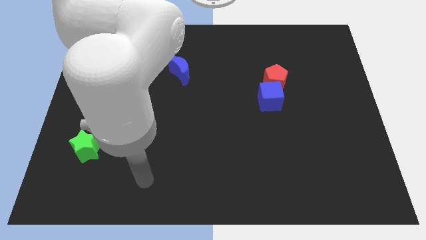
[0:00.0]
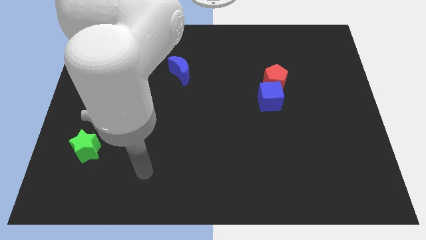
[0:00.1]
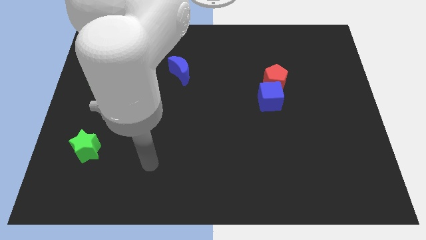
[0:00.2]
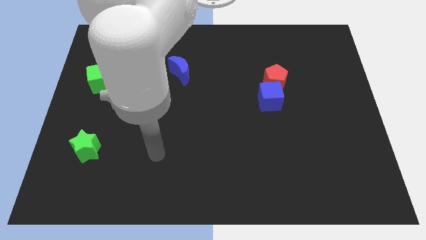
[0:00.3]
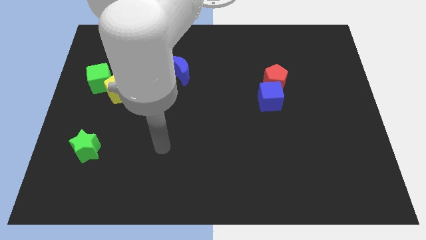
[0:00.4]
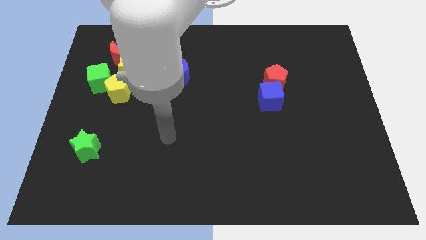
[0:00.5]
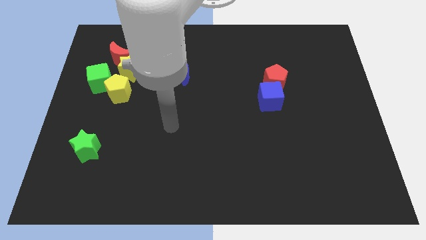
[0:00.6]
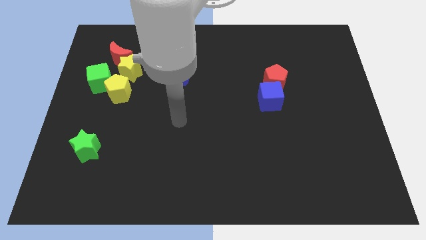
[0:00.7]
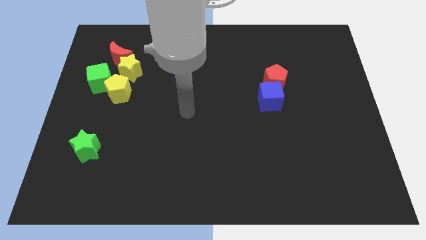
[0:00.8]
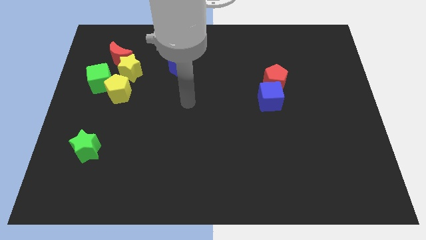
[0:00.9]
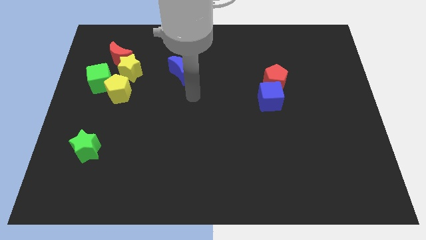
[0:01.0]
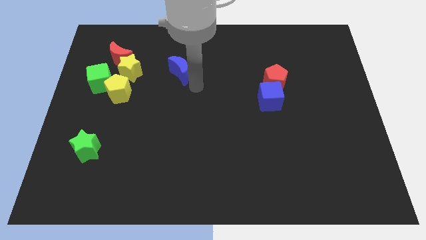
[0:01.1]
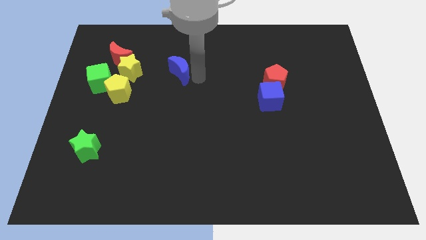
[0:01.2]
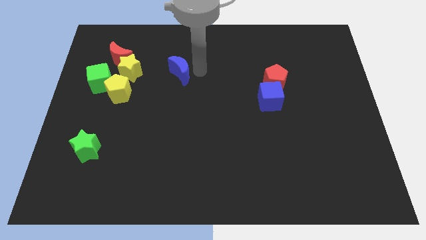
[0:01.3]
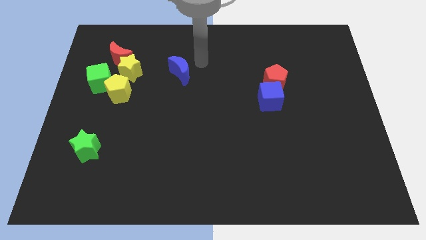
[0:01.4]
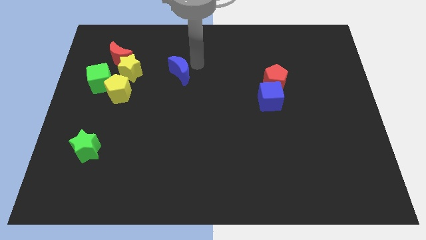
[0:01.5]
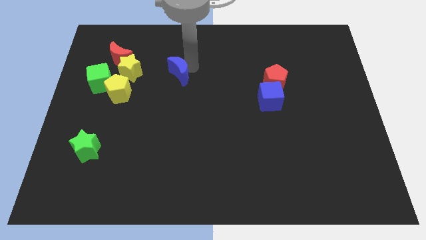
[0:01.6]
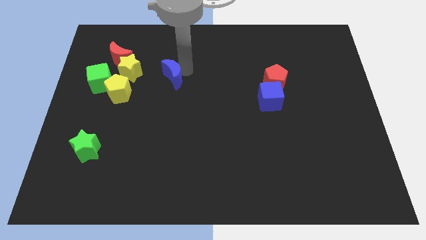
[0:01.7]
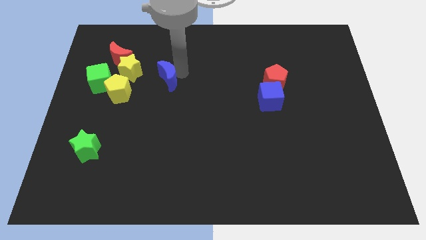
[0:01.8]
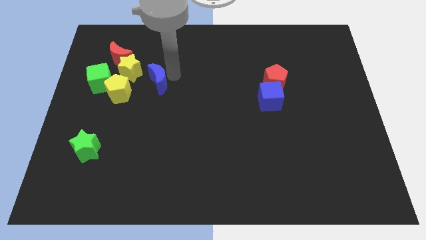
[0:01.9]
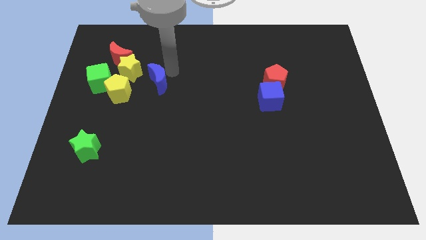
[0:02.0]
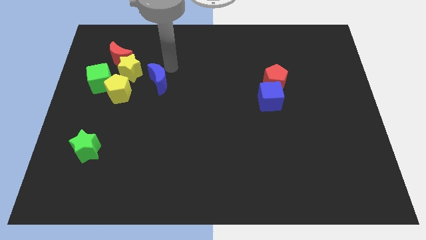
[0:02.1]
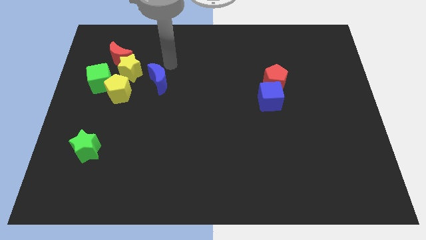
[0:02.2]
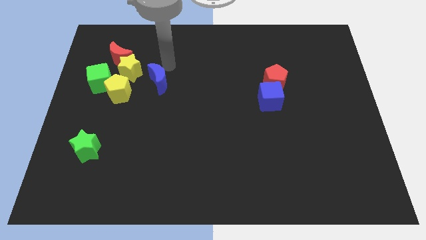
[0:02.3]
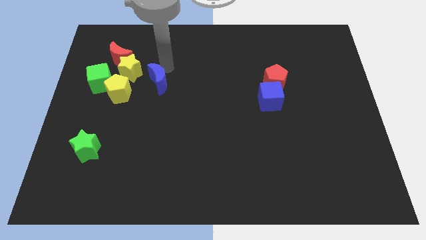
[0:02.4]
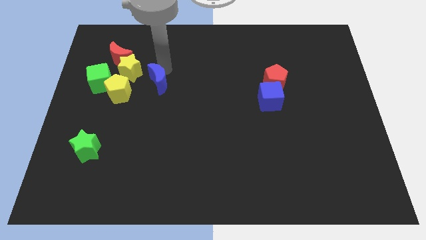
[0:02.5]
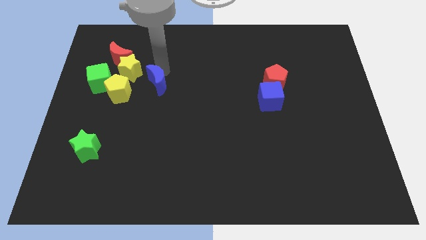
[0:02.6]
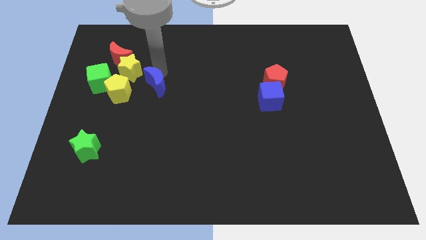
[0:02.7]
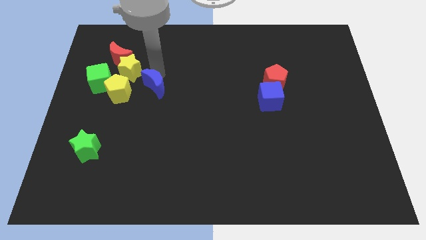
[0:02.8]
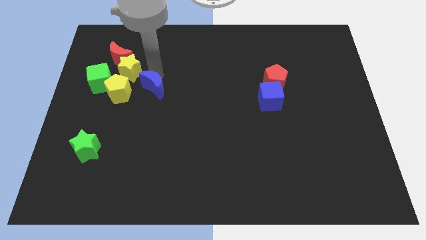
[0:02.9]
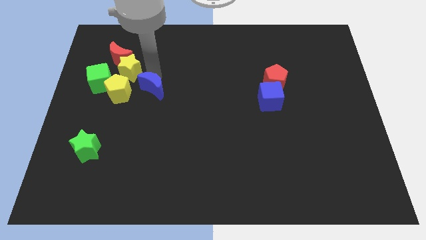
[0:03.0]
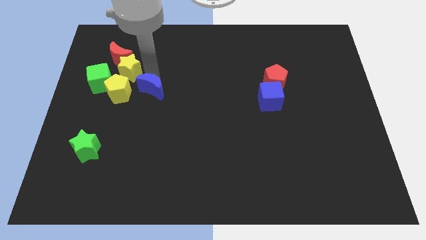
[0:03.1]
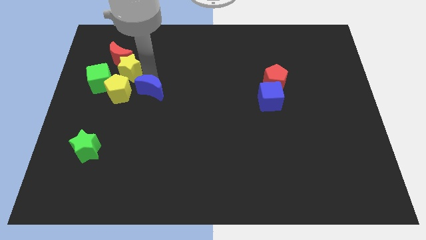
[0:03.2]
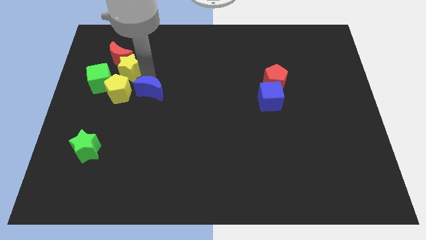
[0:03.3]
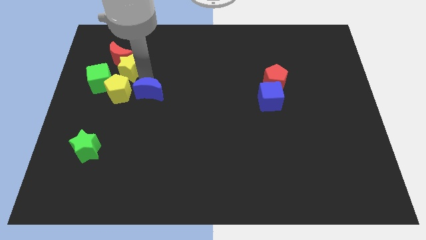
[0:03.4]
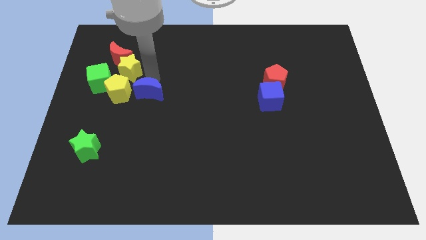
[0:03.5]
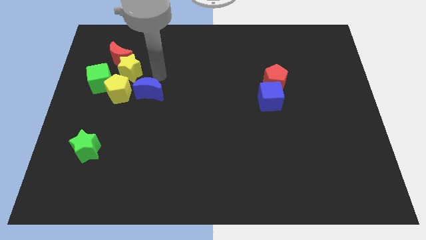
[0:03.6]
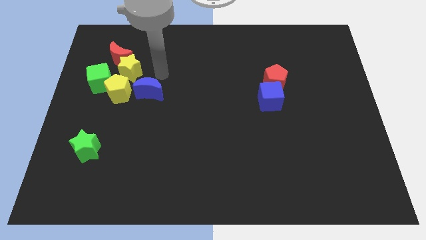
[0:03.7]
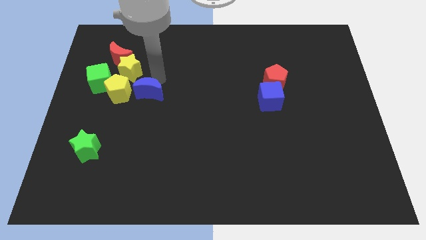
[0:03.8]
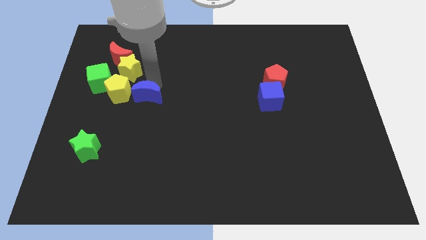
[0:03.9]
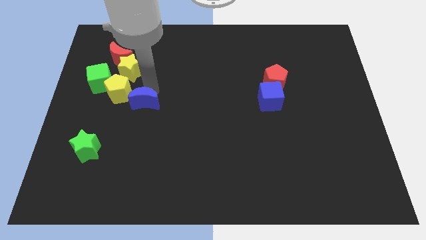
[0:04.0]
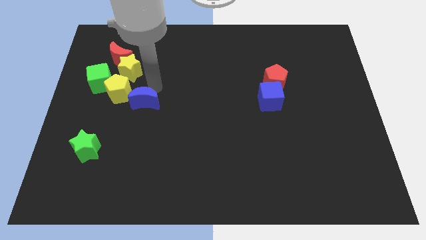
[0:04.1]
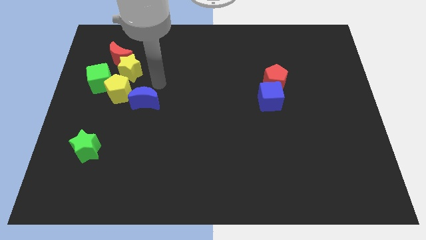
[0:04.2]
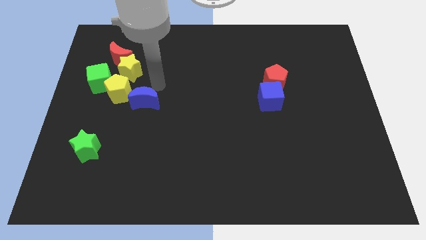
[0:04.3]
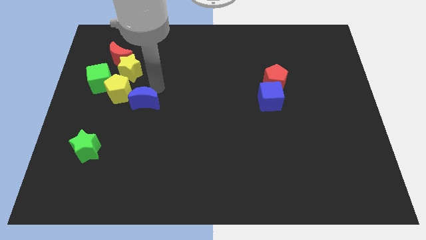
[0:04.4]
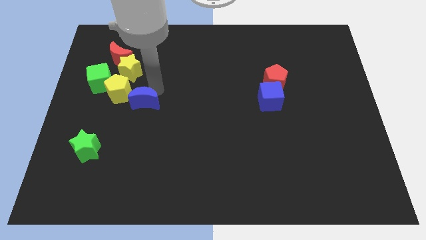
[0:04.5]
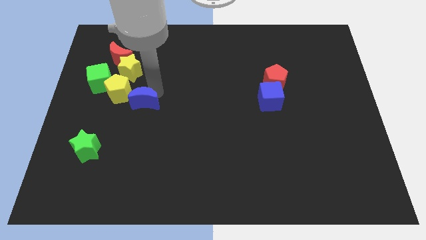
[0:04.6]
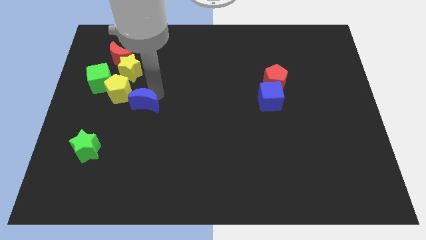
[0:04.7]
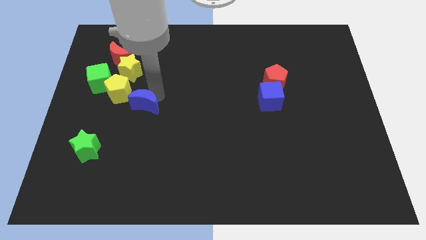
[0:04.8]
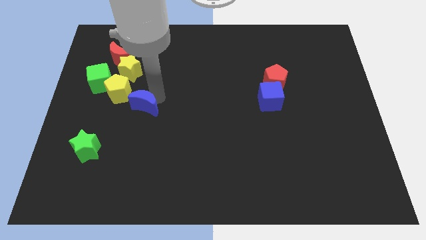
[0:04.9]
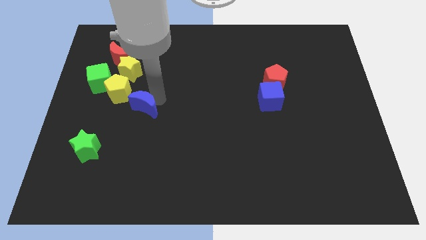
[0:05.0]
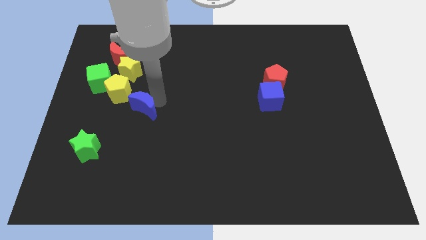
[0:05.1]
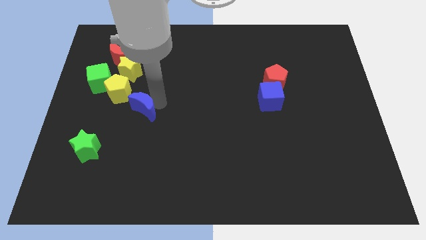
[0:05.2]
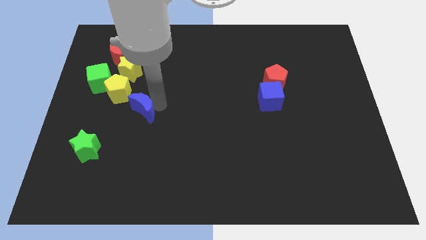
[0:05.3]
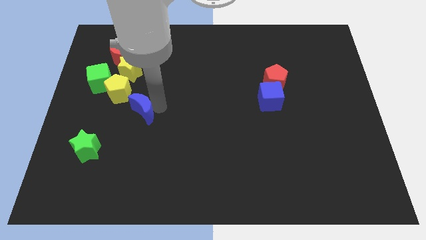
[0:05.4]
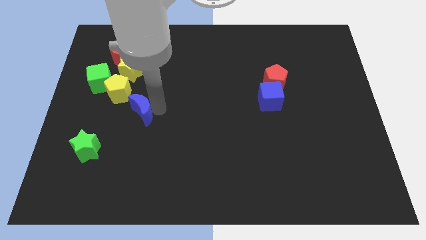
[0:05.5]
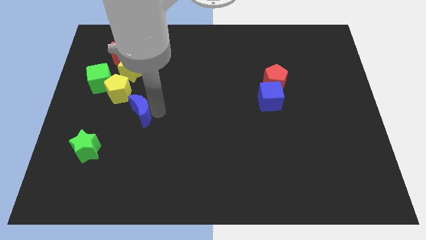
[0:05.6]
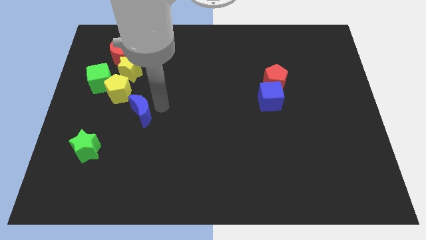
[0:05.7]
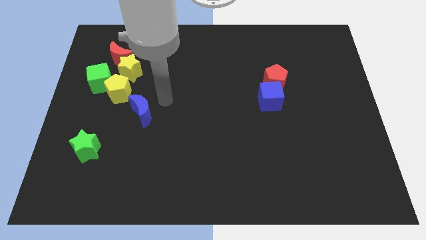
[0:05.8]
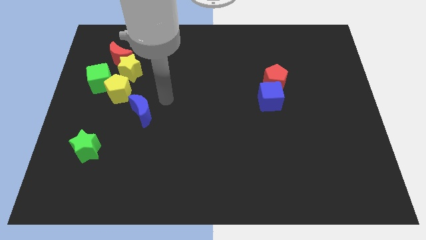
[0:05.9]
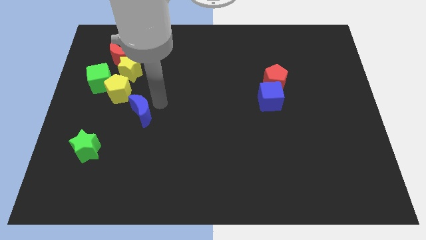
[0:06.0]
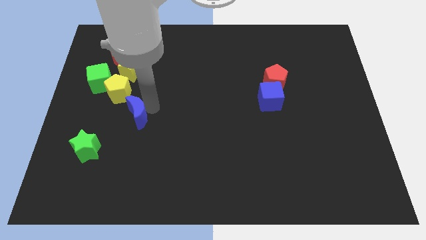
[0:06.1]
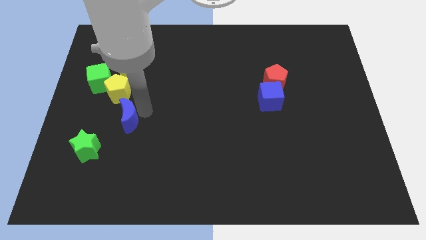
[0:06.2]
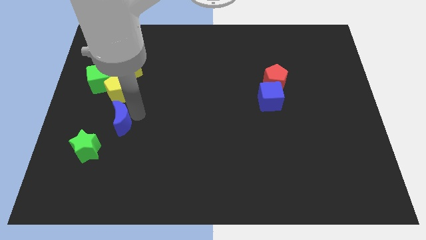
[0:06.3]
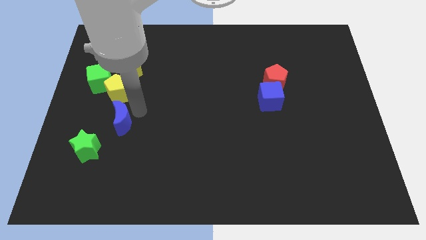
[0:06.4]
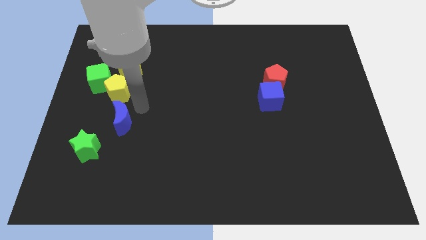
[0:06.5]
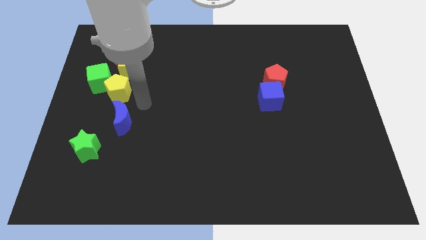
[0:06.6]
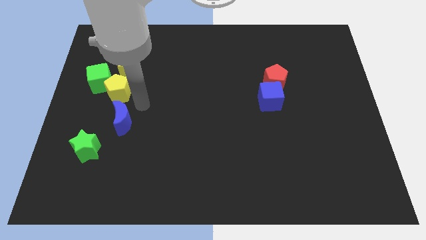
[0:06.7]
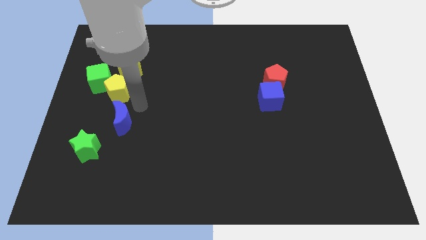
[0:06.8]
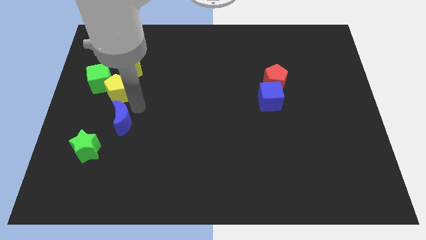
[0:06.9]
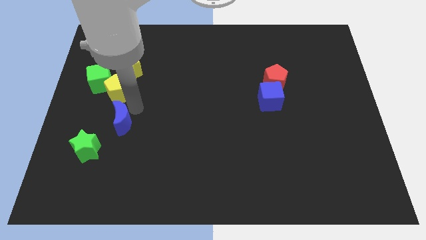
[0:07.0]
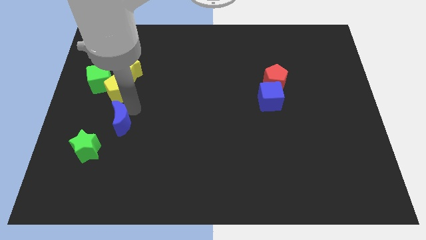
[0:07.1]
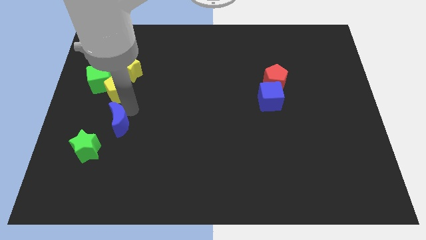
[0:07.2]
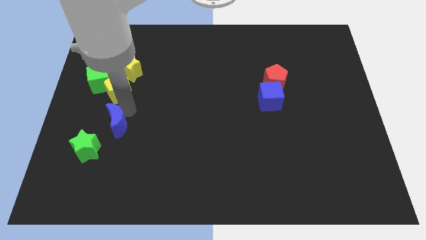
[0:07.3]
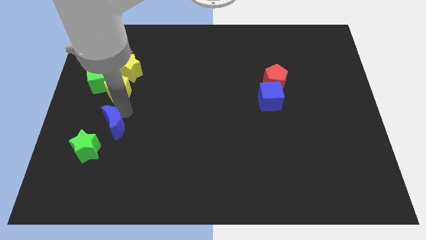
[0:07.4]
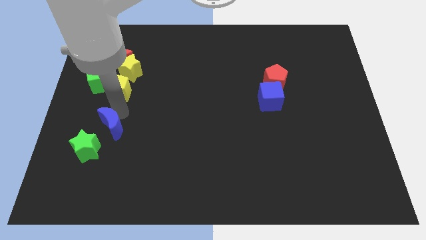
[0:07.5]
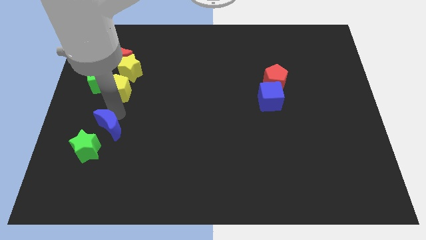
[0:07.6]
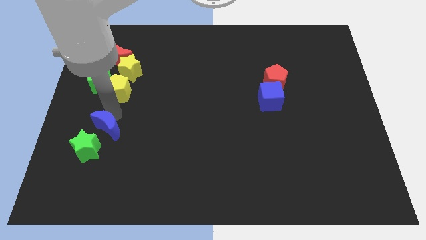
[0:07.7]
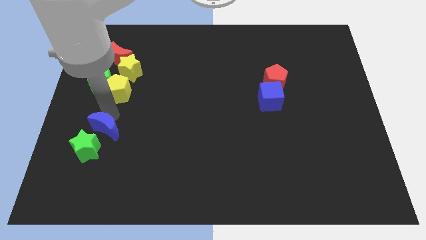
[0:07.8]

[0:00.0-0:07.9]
slide the blue moon close to the green star
